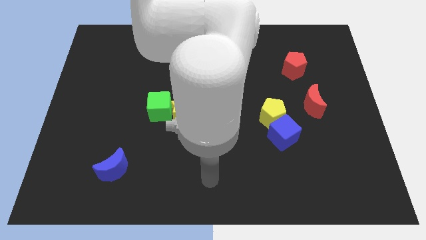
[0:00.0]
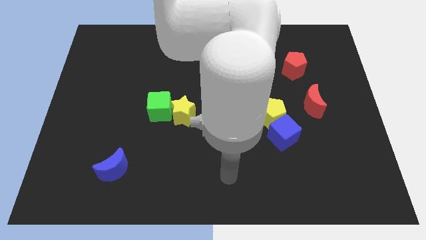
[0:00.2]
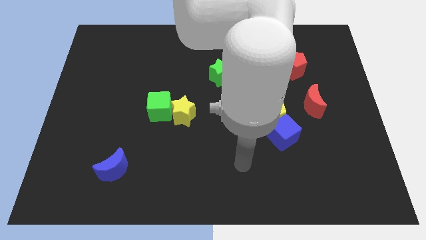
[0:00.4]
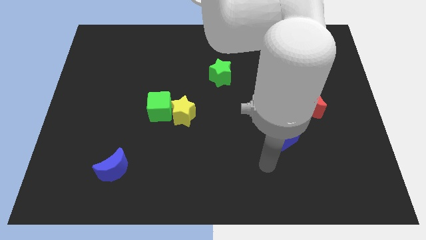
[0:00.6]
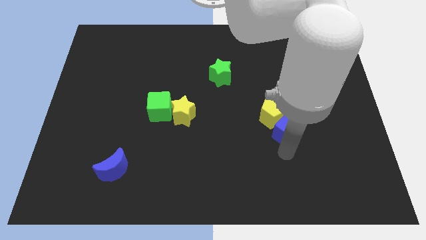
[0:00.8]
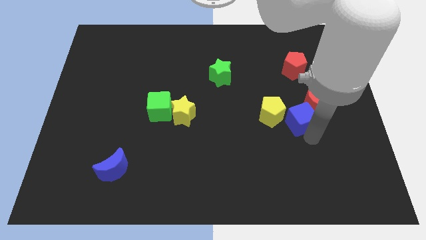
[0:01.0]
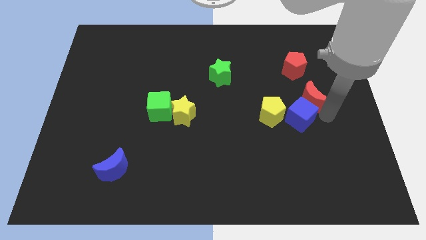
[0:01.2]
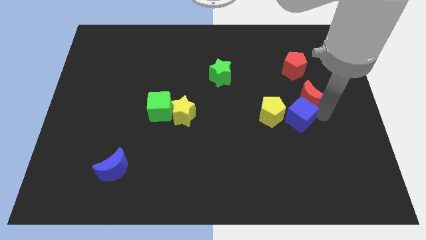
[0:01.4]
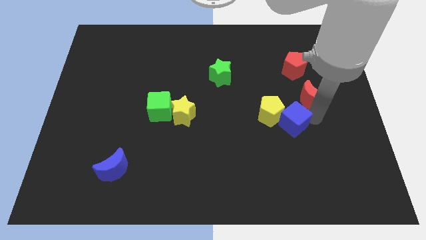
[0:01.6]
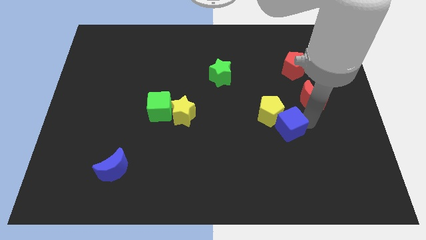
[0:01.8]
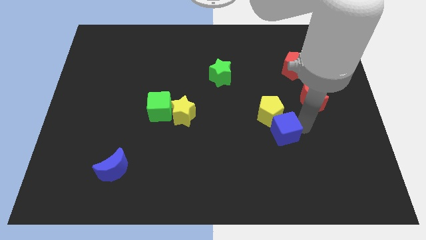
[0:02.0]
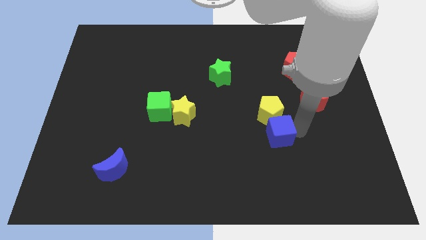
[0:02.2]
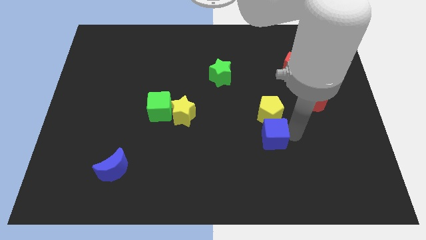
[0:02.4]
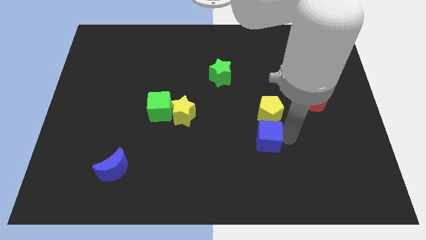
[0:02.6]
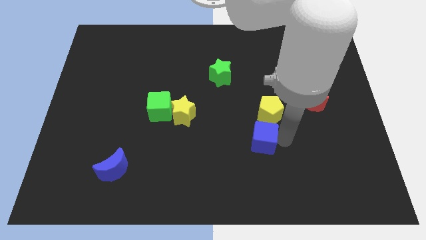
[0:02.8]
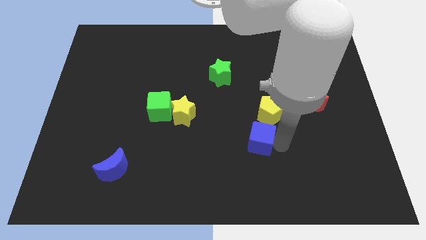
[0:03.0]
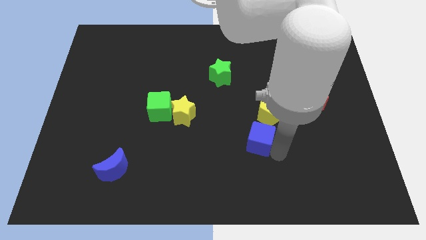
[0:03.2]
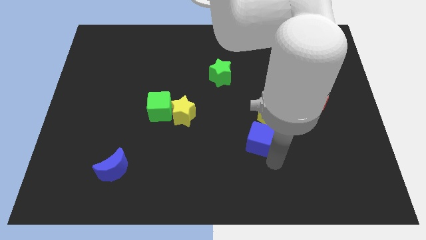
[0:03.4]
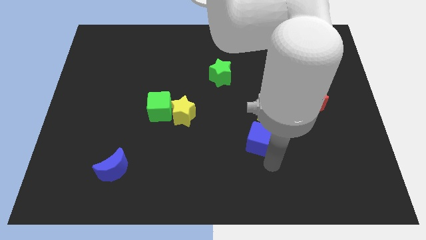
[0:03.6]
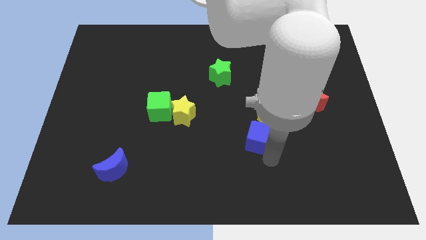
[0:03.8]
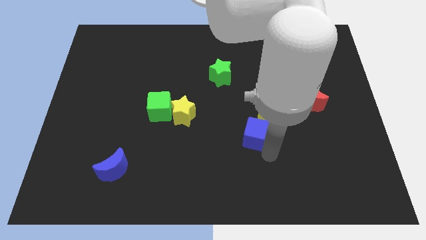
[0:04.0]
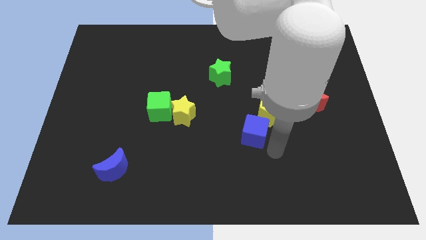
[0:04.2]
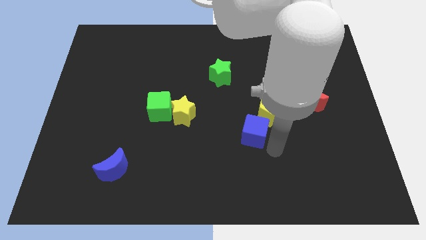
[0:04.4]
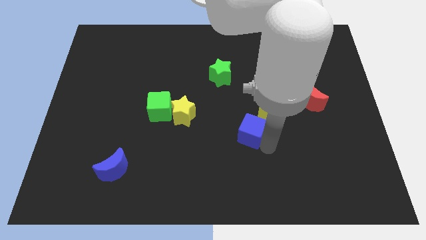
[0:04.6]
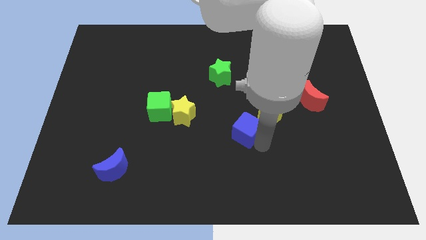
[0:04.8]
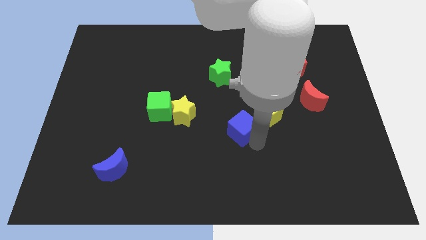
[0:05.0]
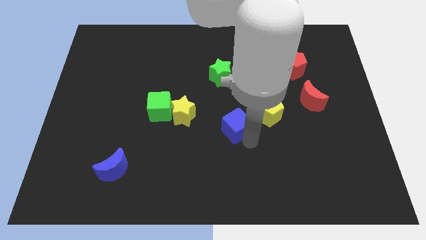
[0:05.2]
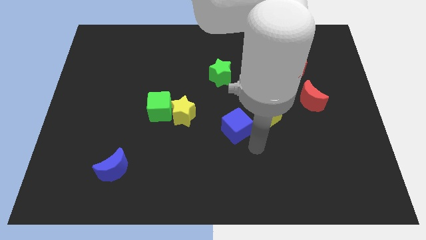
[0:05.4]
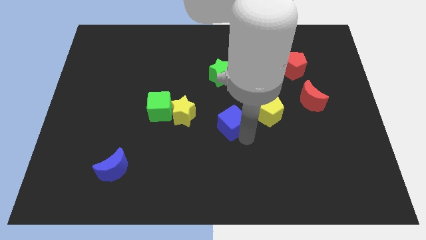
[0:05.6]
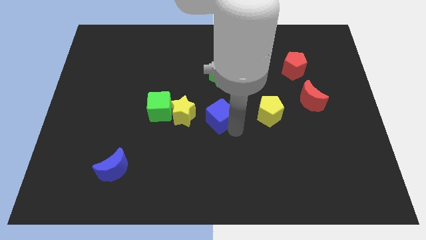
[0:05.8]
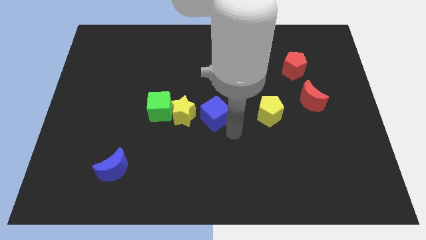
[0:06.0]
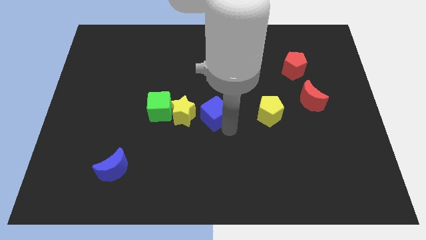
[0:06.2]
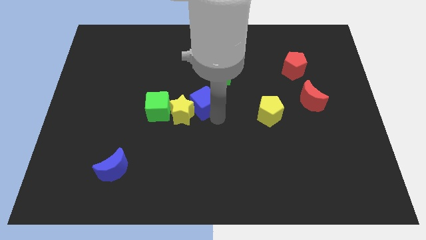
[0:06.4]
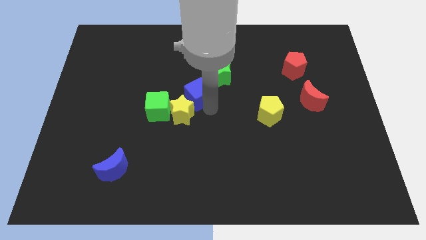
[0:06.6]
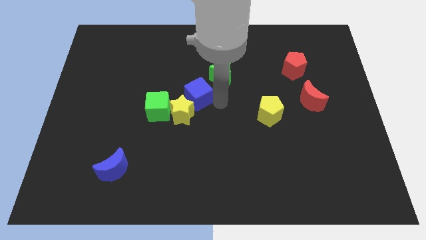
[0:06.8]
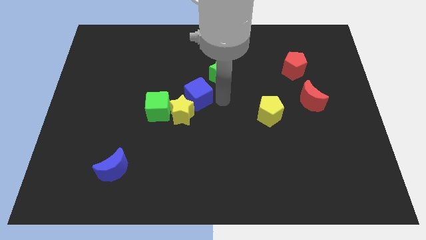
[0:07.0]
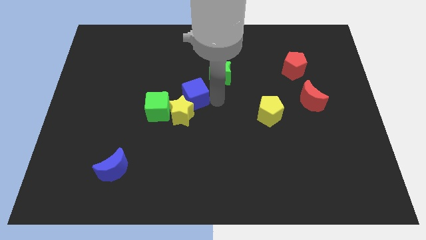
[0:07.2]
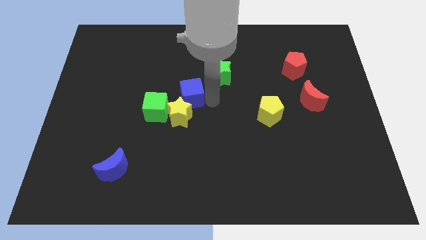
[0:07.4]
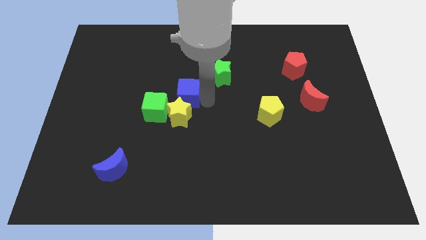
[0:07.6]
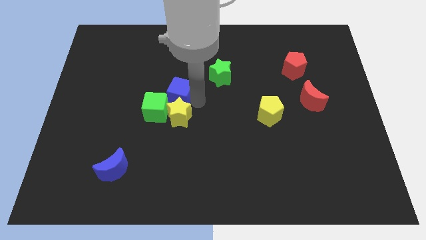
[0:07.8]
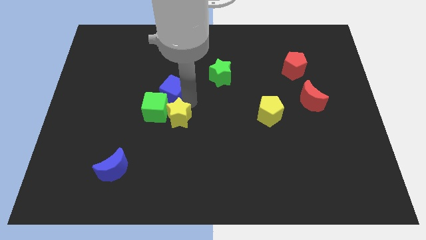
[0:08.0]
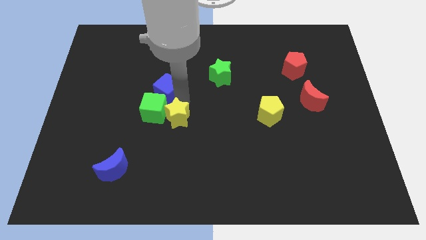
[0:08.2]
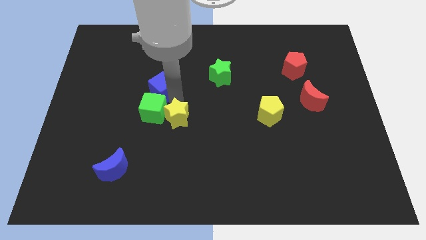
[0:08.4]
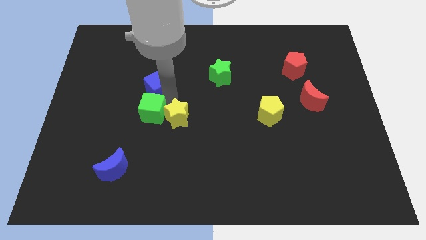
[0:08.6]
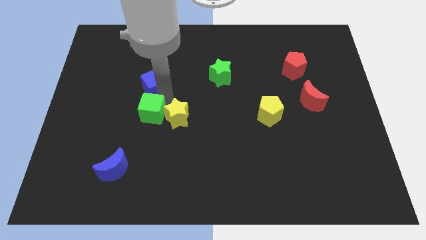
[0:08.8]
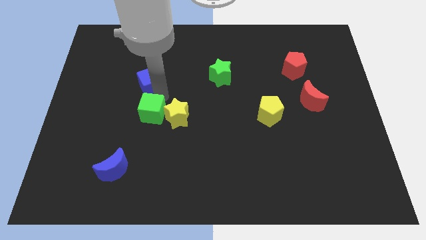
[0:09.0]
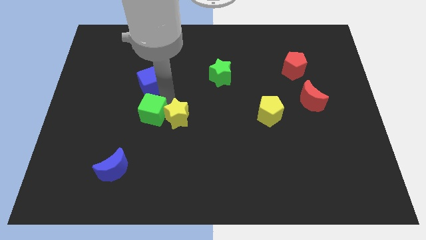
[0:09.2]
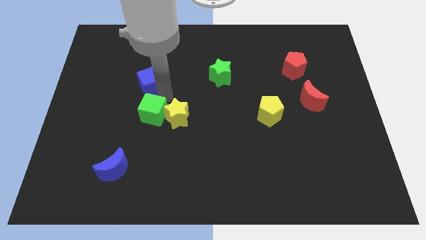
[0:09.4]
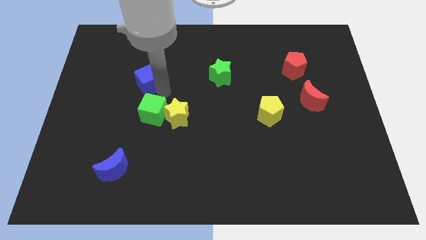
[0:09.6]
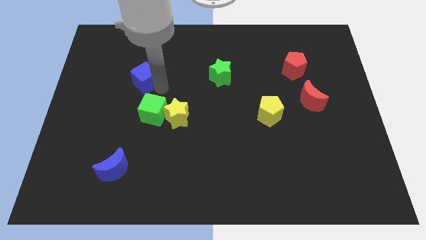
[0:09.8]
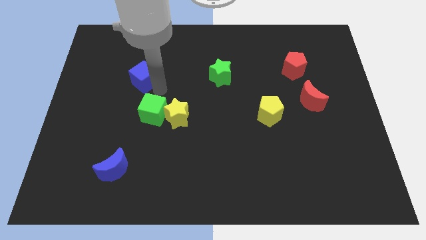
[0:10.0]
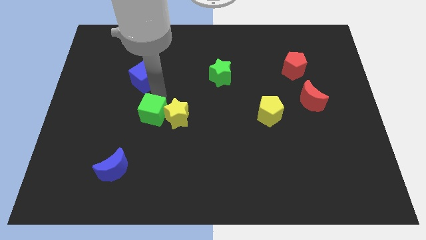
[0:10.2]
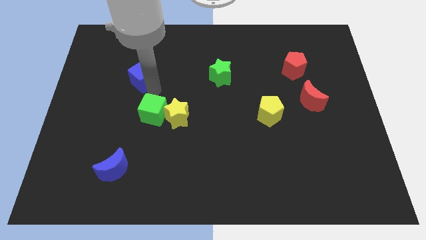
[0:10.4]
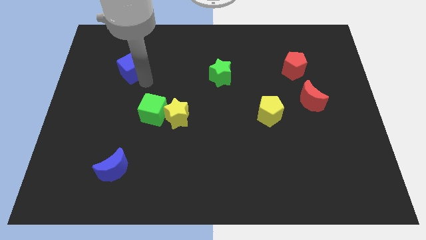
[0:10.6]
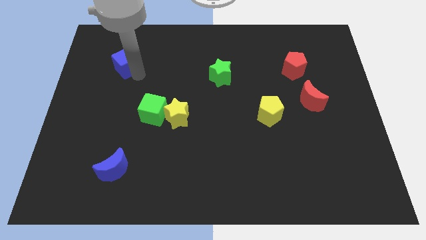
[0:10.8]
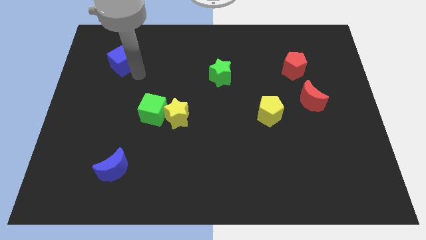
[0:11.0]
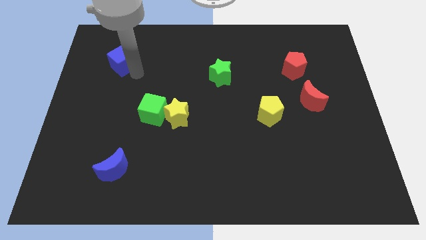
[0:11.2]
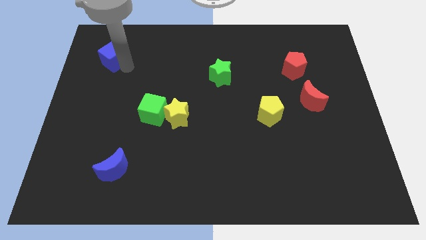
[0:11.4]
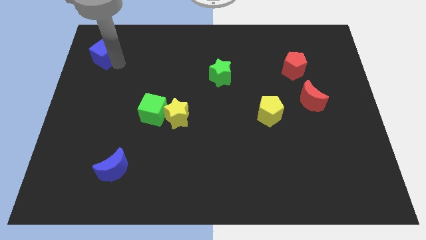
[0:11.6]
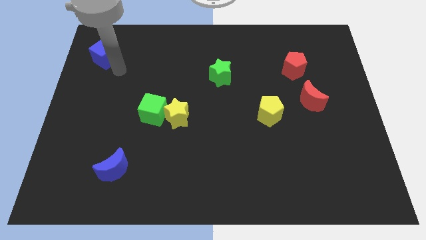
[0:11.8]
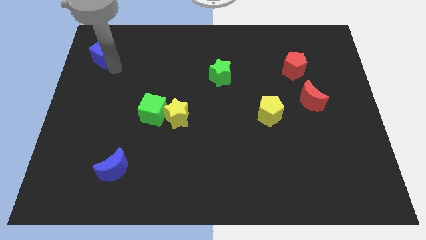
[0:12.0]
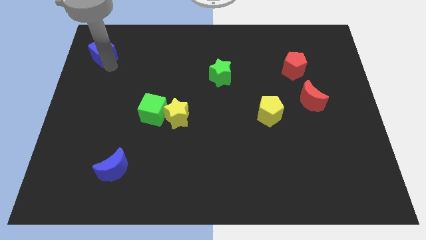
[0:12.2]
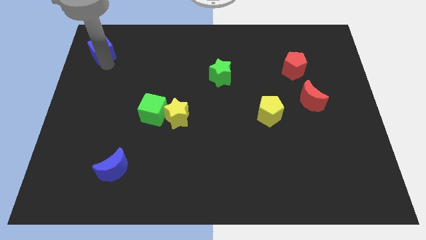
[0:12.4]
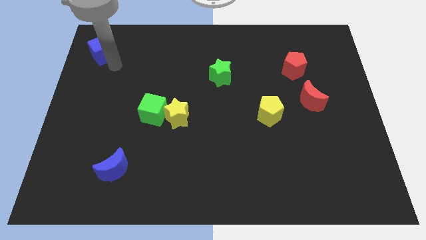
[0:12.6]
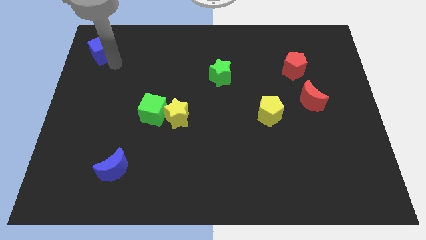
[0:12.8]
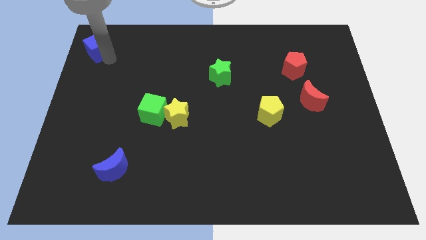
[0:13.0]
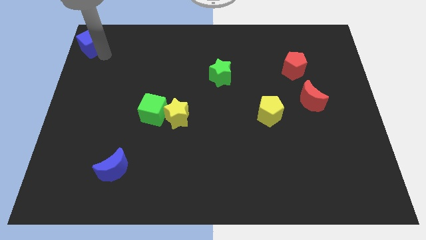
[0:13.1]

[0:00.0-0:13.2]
push the blue cube to the top left of the board
